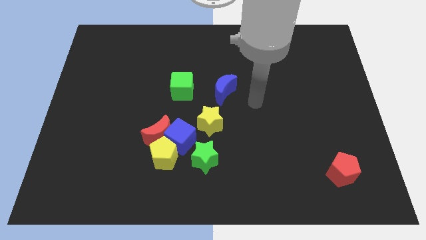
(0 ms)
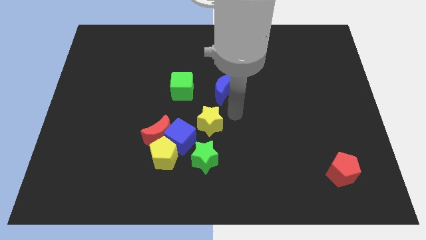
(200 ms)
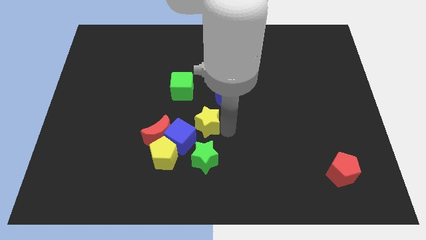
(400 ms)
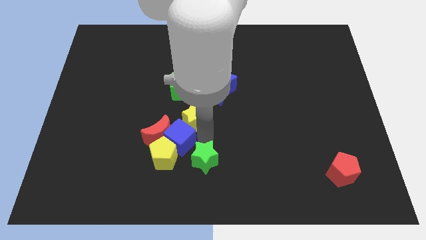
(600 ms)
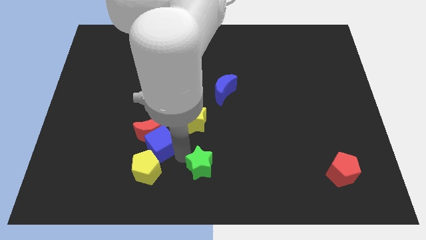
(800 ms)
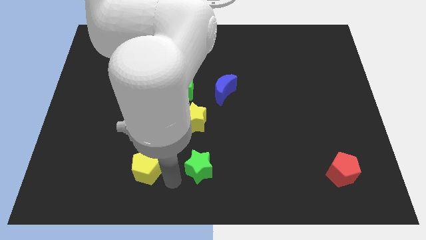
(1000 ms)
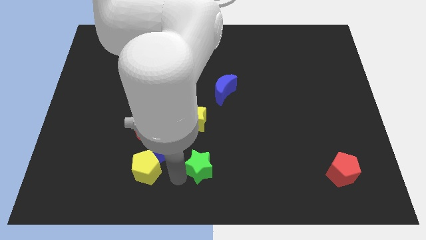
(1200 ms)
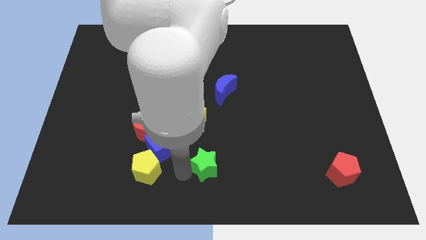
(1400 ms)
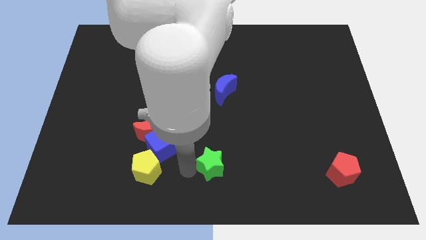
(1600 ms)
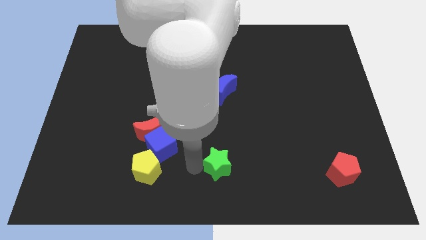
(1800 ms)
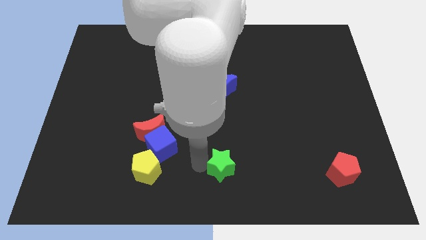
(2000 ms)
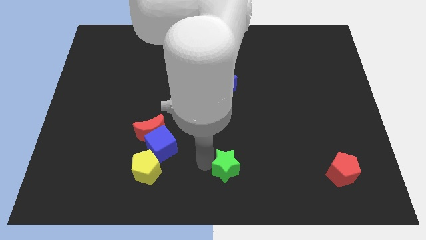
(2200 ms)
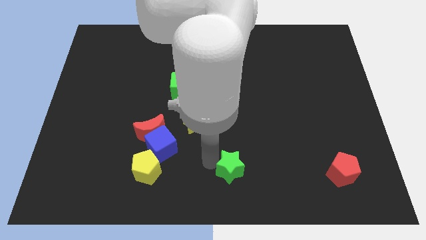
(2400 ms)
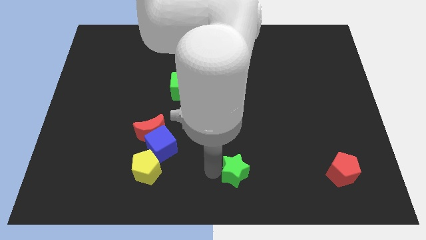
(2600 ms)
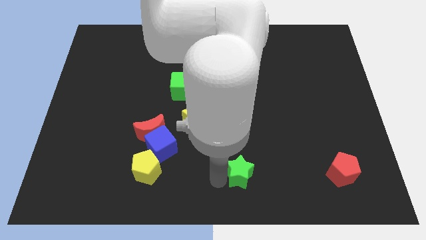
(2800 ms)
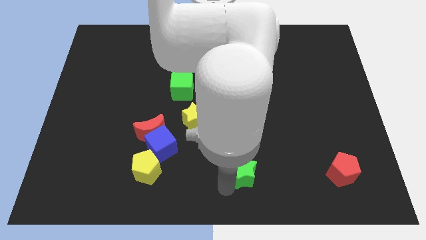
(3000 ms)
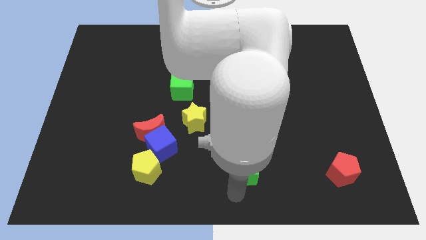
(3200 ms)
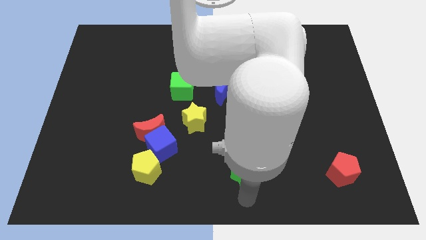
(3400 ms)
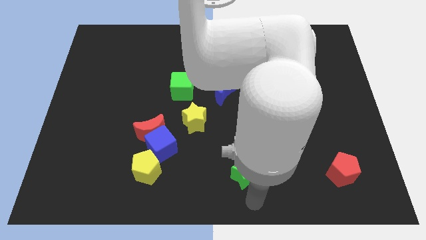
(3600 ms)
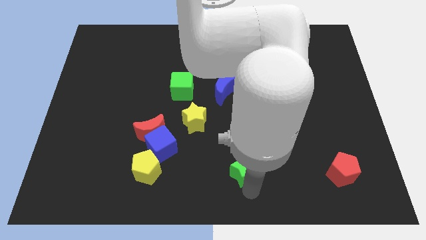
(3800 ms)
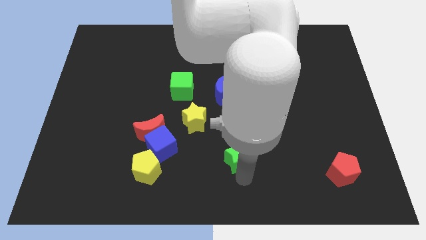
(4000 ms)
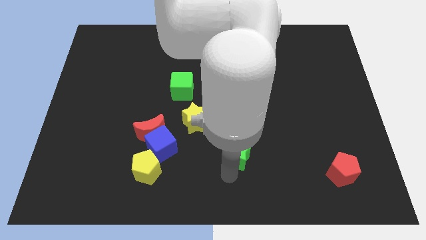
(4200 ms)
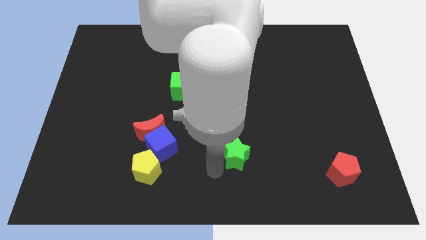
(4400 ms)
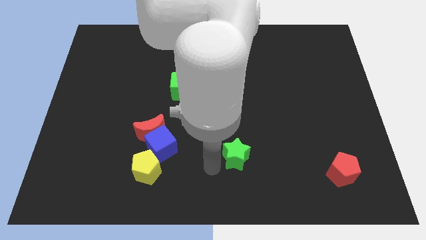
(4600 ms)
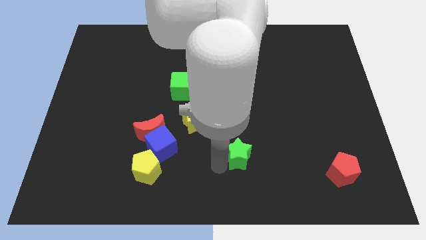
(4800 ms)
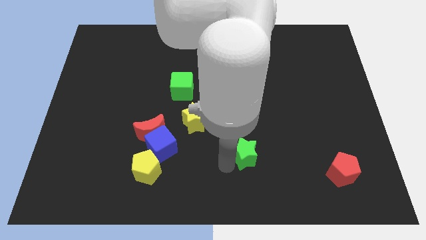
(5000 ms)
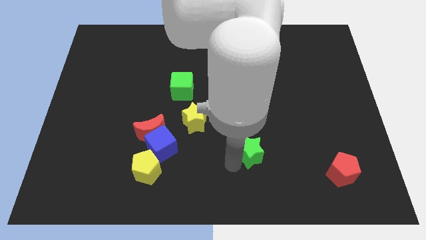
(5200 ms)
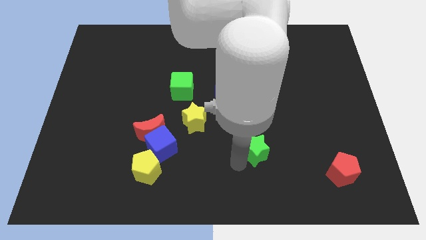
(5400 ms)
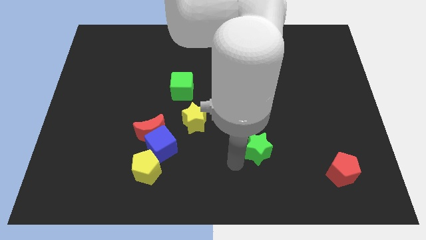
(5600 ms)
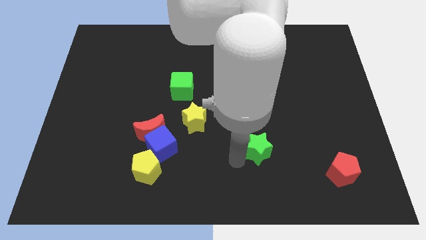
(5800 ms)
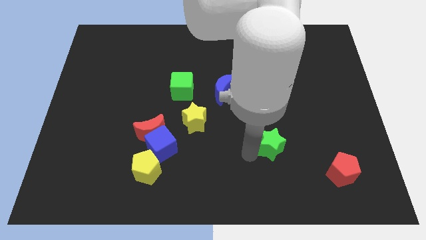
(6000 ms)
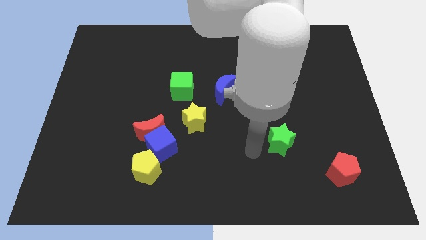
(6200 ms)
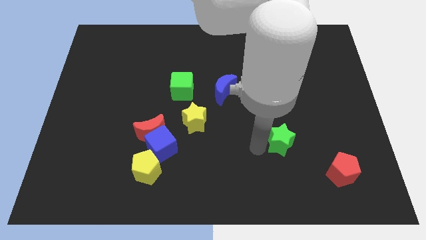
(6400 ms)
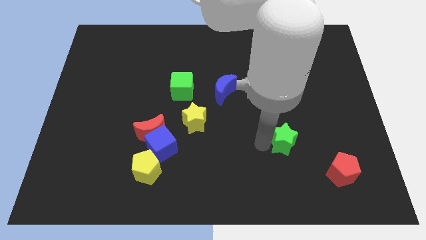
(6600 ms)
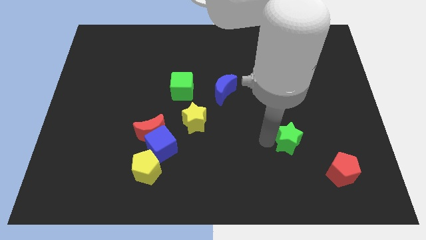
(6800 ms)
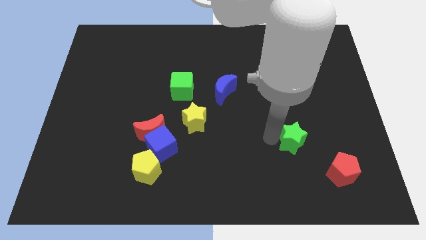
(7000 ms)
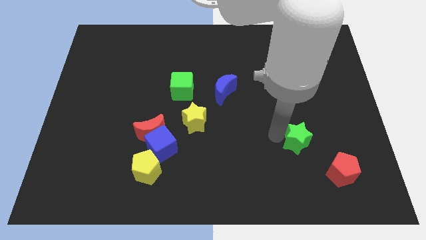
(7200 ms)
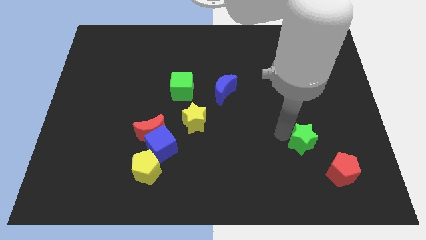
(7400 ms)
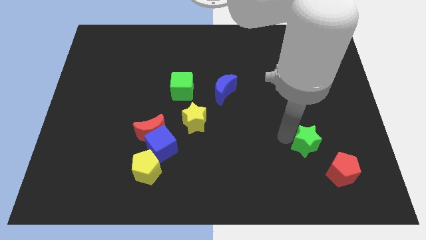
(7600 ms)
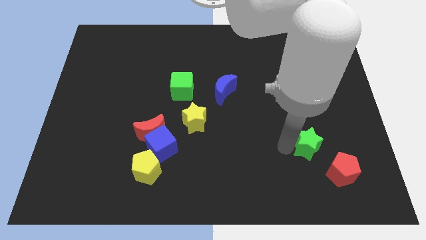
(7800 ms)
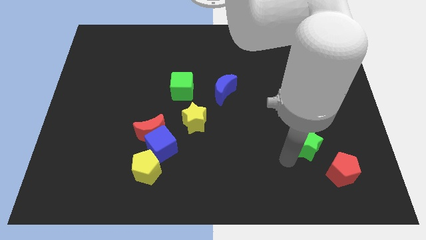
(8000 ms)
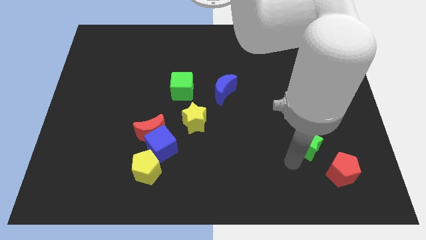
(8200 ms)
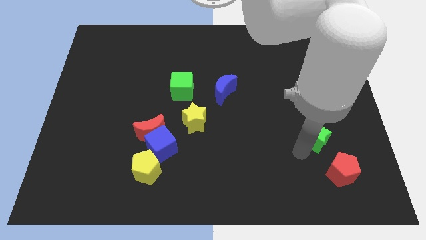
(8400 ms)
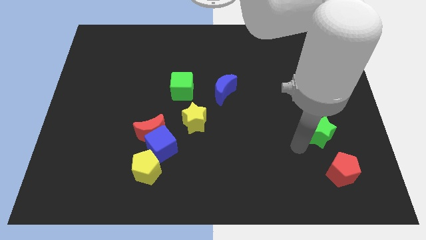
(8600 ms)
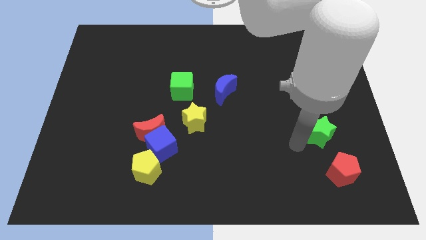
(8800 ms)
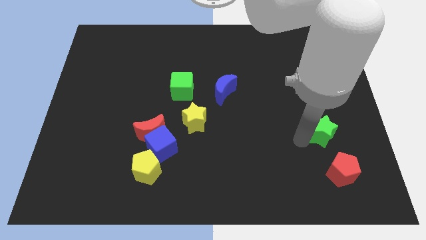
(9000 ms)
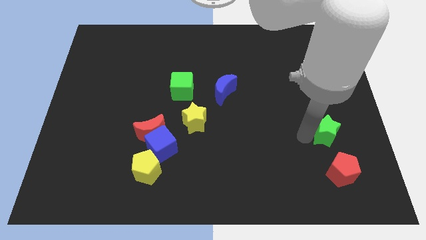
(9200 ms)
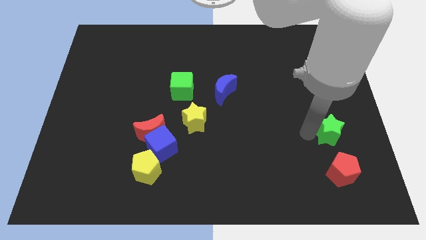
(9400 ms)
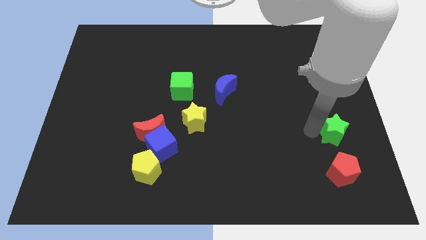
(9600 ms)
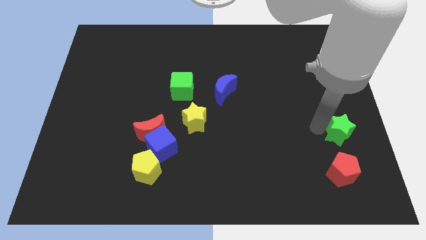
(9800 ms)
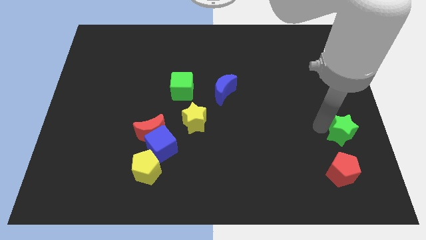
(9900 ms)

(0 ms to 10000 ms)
move the green star to the center right

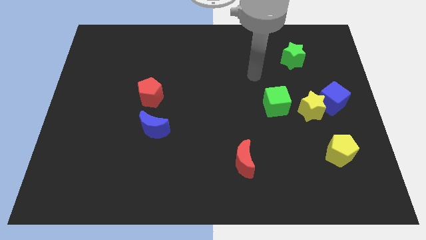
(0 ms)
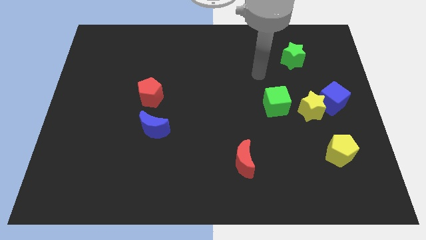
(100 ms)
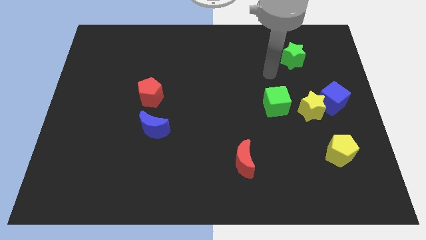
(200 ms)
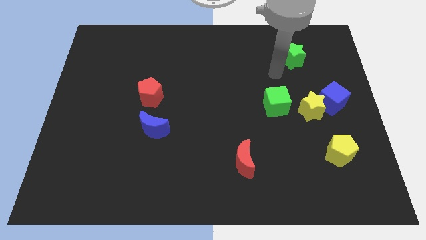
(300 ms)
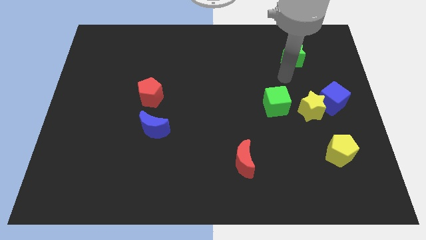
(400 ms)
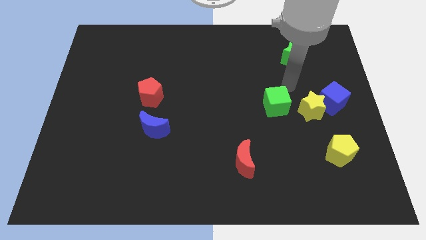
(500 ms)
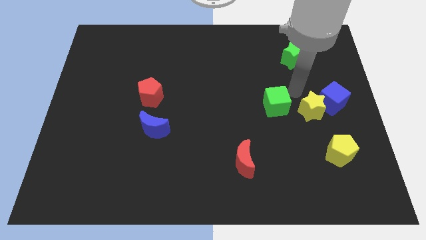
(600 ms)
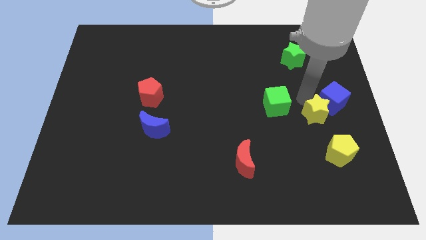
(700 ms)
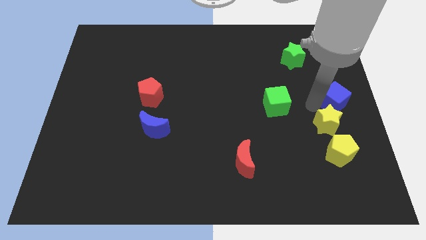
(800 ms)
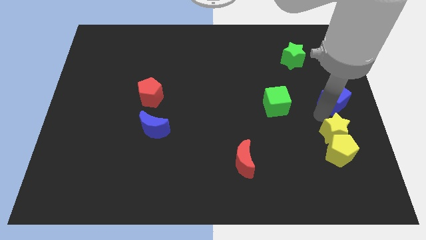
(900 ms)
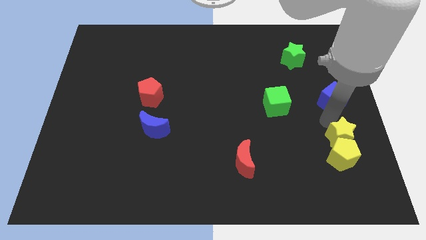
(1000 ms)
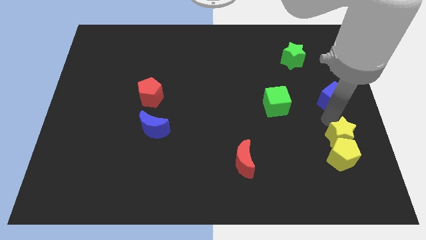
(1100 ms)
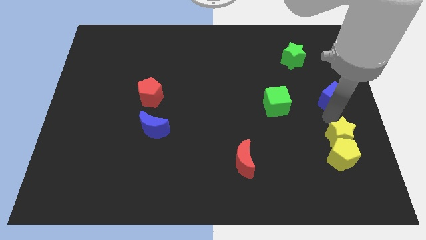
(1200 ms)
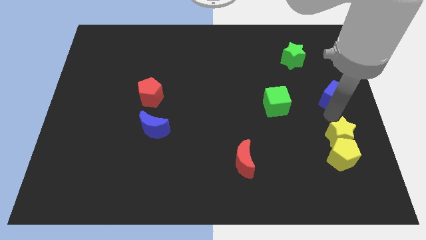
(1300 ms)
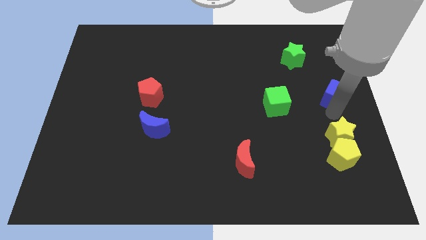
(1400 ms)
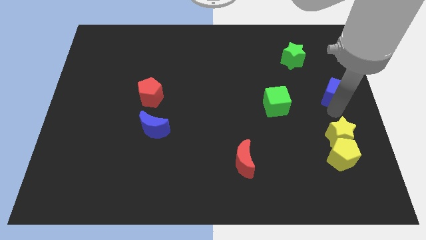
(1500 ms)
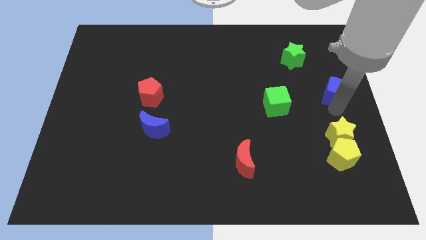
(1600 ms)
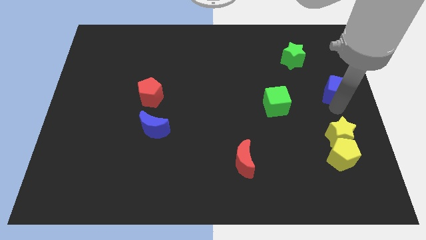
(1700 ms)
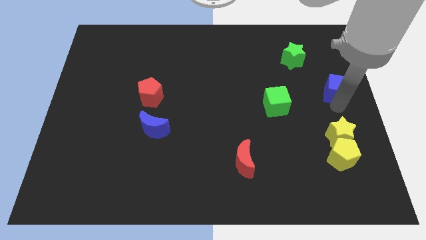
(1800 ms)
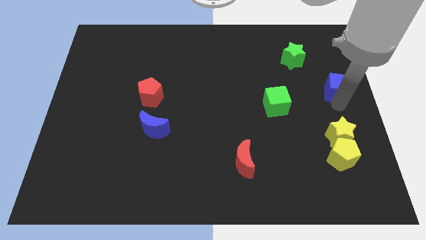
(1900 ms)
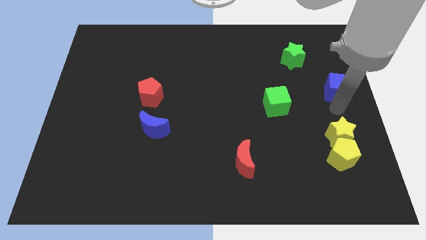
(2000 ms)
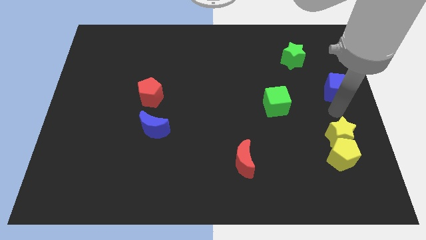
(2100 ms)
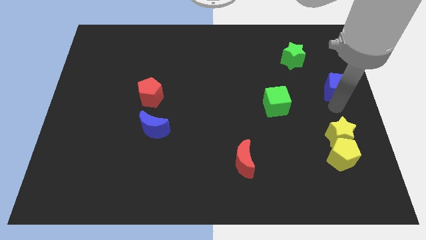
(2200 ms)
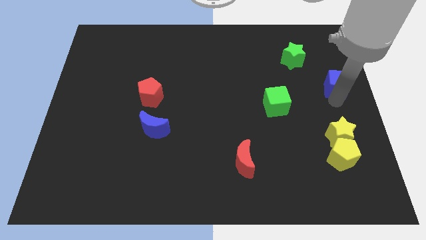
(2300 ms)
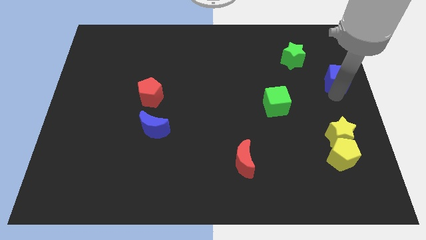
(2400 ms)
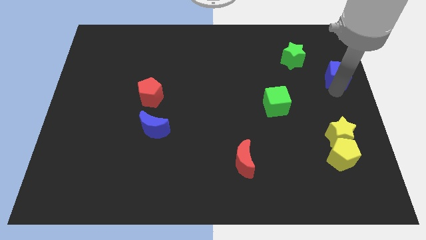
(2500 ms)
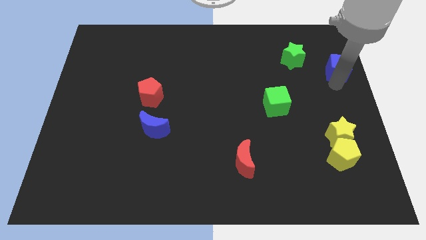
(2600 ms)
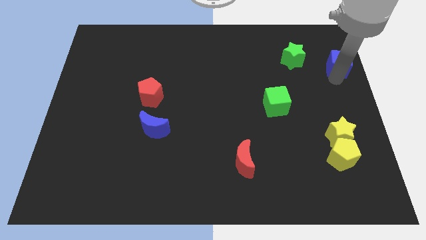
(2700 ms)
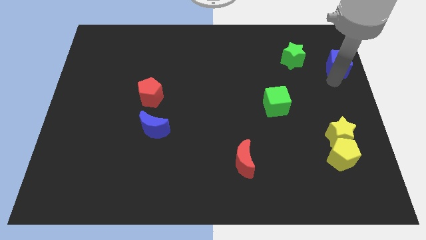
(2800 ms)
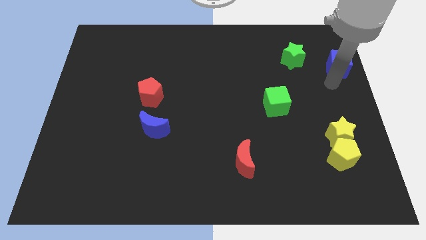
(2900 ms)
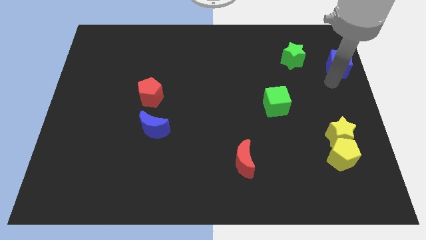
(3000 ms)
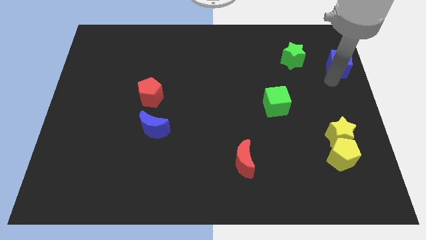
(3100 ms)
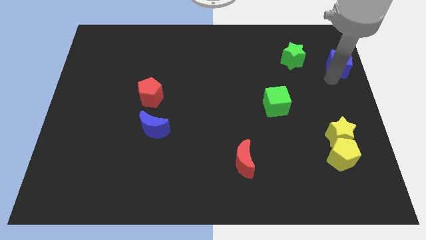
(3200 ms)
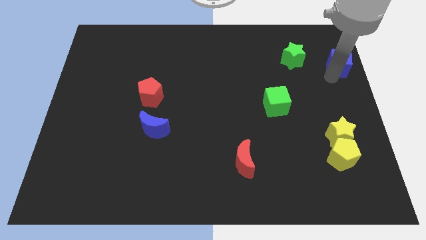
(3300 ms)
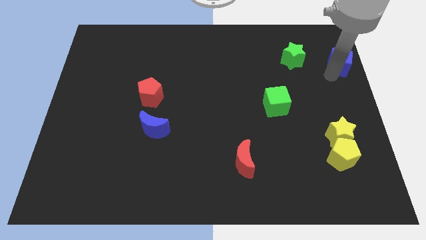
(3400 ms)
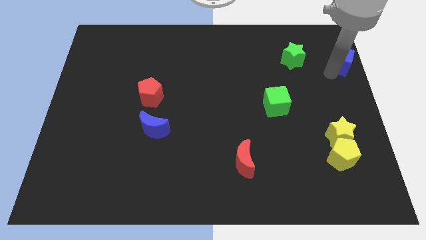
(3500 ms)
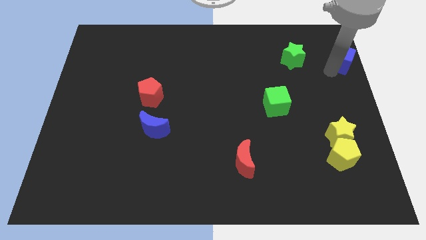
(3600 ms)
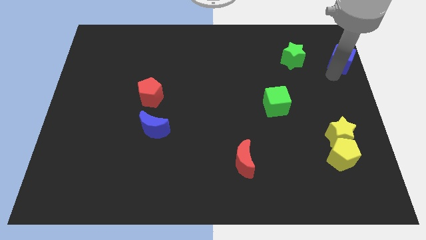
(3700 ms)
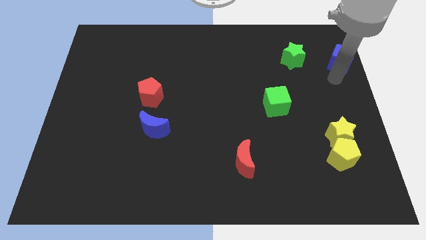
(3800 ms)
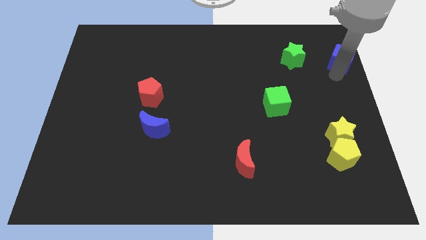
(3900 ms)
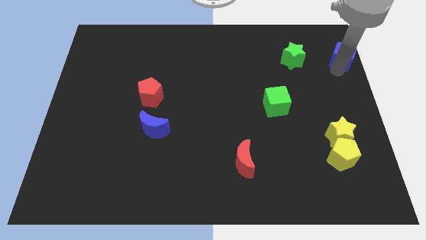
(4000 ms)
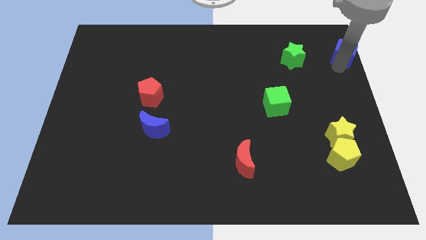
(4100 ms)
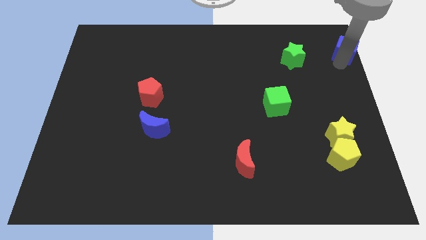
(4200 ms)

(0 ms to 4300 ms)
put the blue cube to the top right
